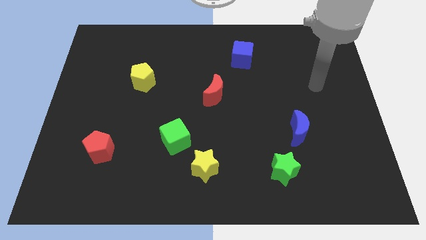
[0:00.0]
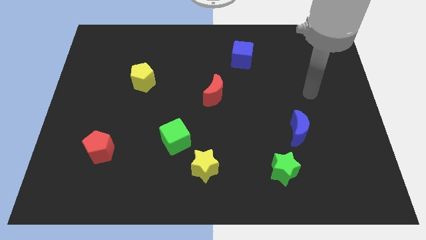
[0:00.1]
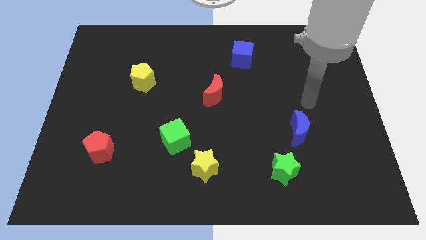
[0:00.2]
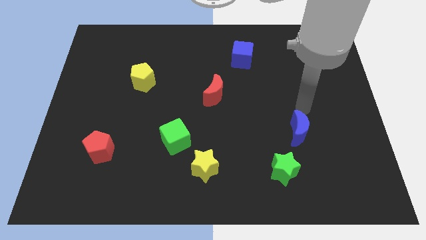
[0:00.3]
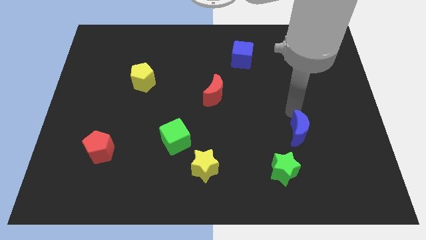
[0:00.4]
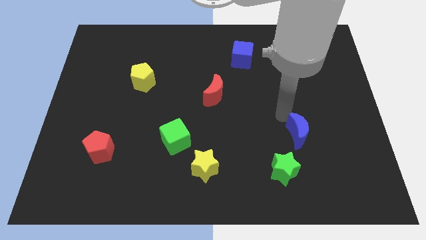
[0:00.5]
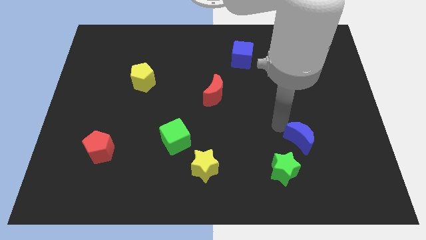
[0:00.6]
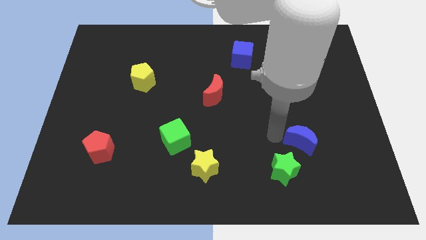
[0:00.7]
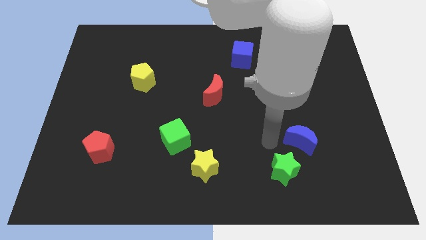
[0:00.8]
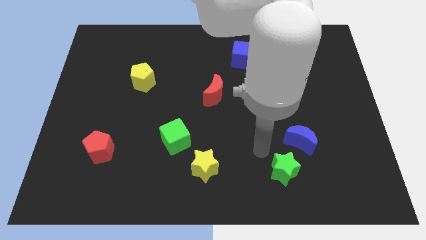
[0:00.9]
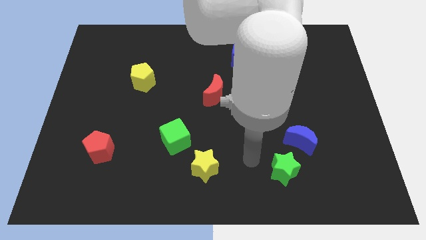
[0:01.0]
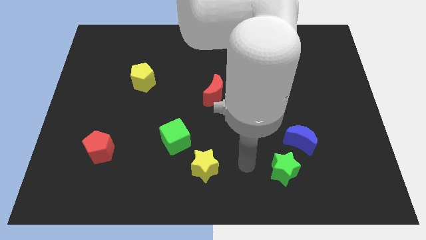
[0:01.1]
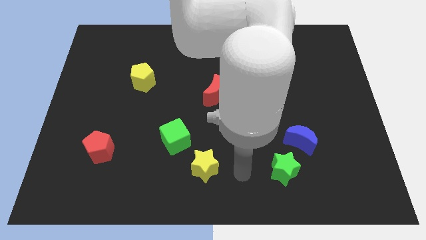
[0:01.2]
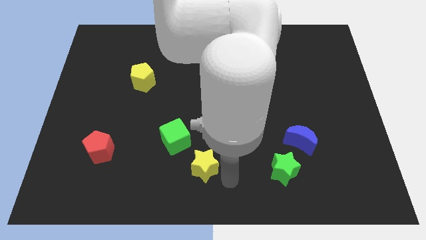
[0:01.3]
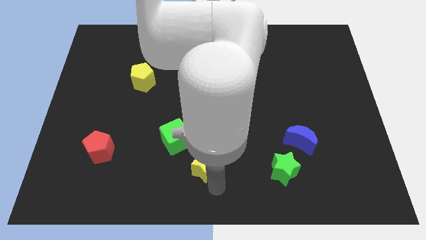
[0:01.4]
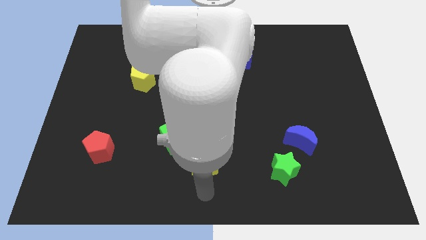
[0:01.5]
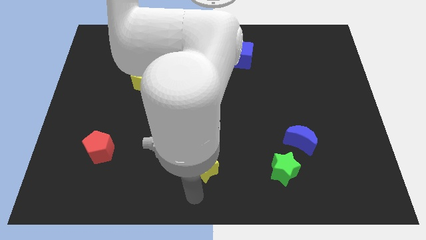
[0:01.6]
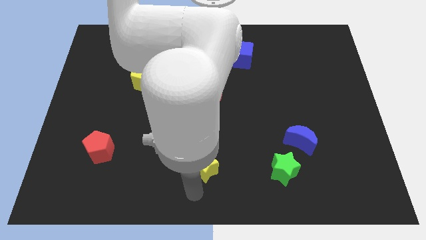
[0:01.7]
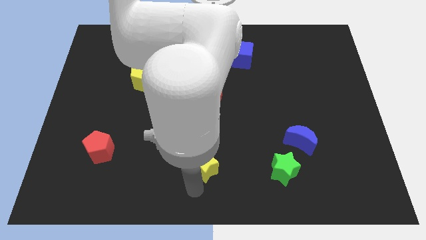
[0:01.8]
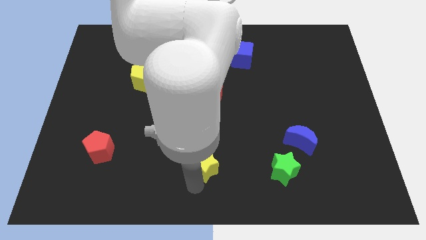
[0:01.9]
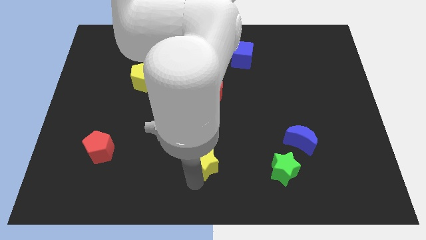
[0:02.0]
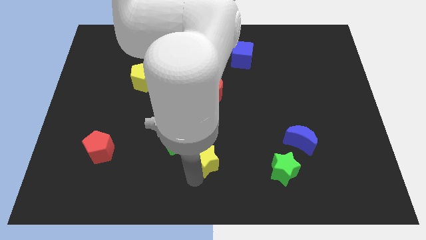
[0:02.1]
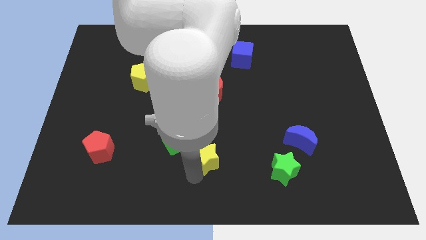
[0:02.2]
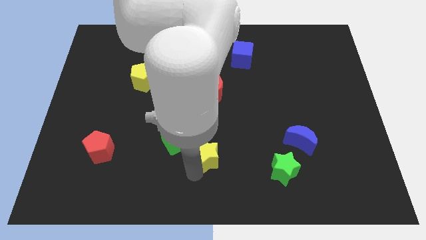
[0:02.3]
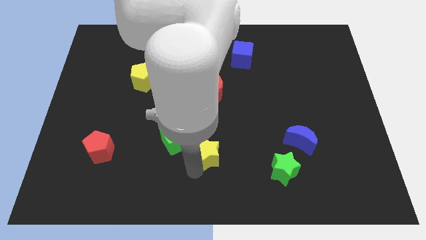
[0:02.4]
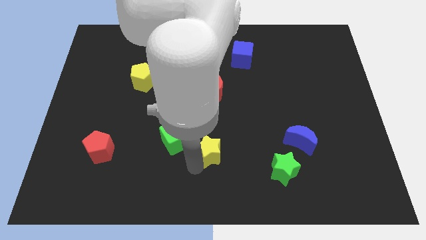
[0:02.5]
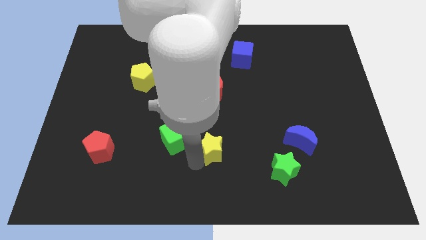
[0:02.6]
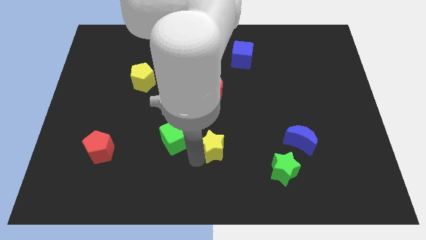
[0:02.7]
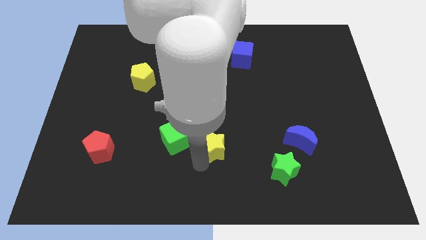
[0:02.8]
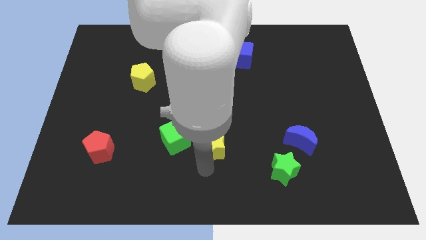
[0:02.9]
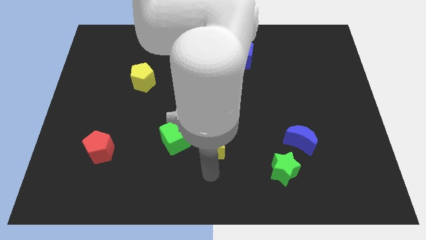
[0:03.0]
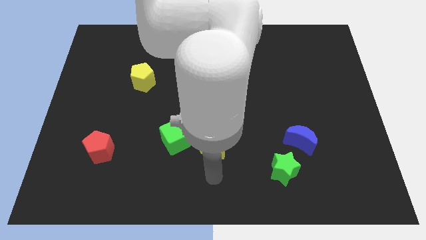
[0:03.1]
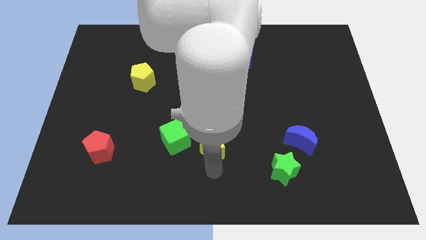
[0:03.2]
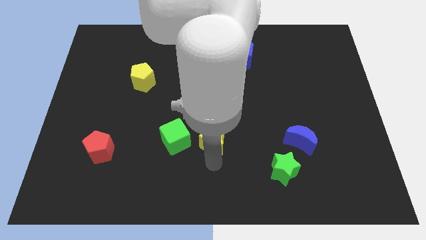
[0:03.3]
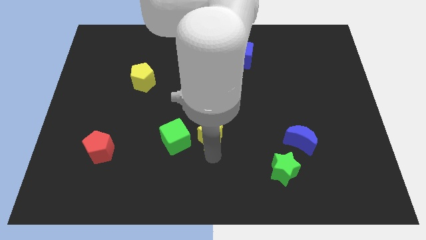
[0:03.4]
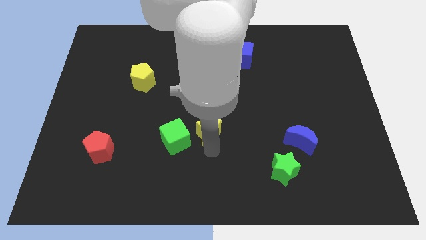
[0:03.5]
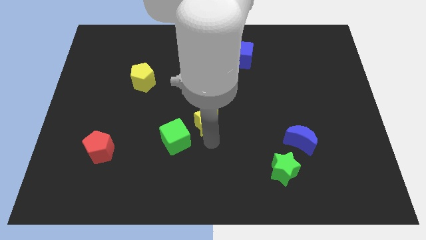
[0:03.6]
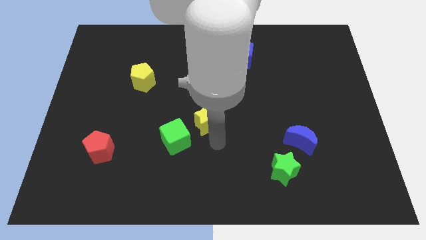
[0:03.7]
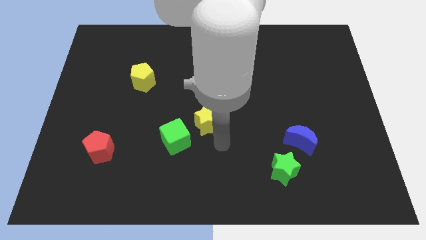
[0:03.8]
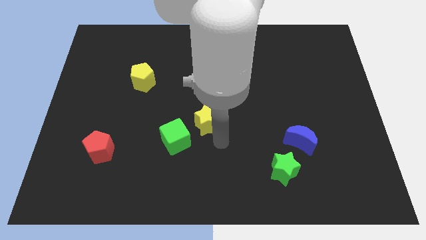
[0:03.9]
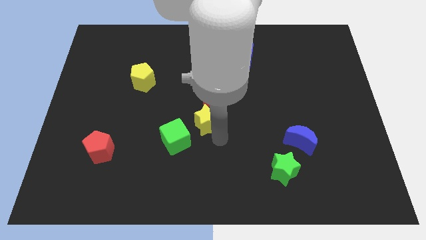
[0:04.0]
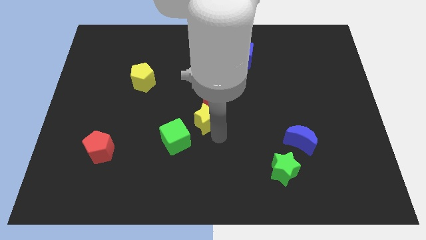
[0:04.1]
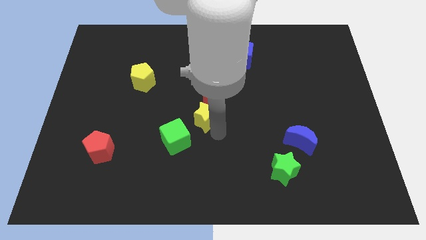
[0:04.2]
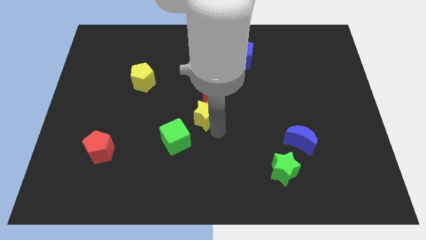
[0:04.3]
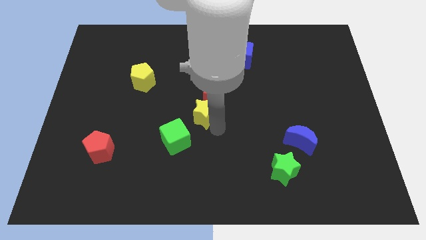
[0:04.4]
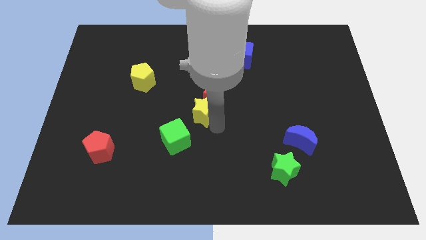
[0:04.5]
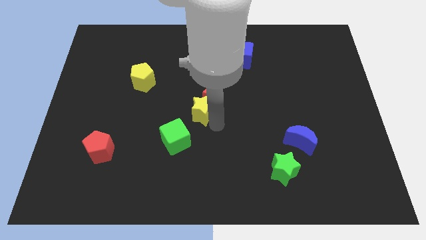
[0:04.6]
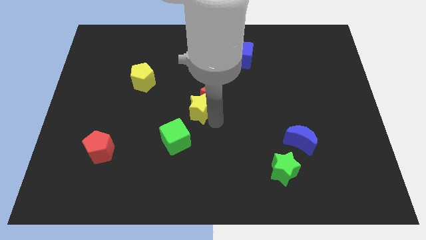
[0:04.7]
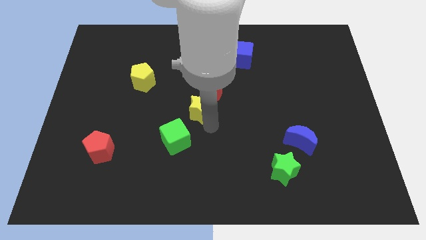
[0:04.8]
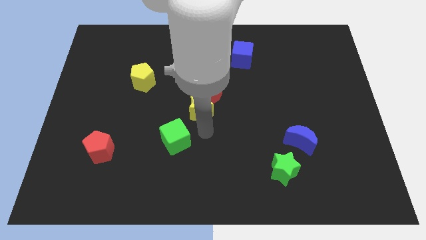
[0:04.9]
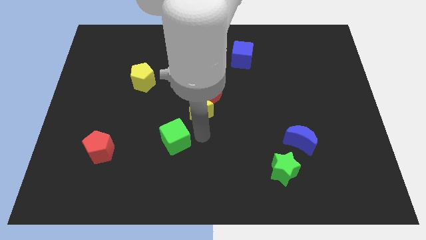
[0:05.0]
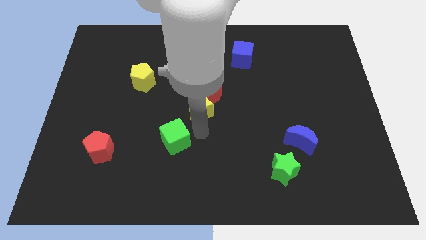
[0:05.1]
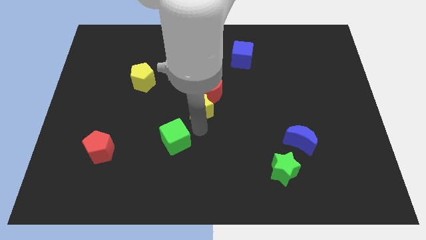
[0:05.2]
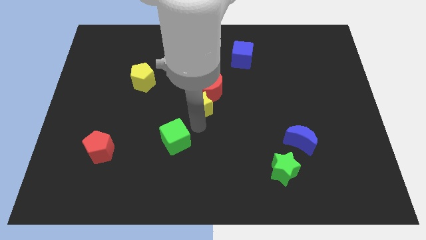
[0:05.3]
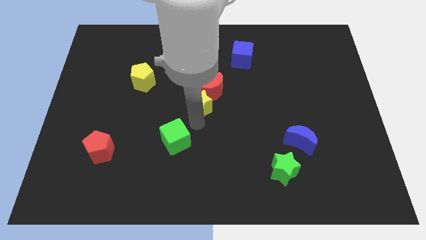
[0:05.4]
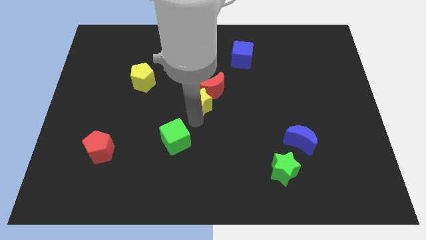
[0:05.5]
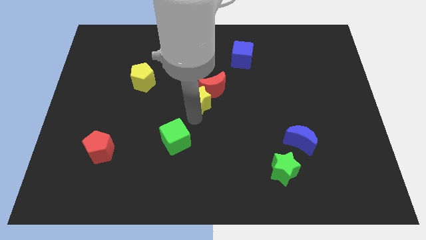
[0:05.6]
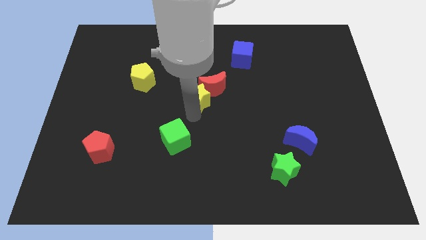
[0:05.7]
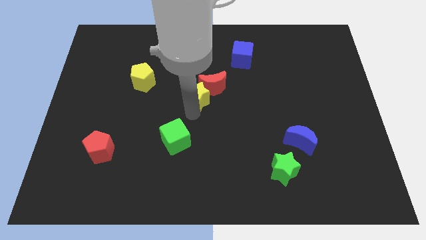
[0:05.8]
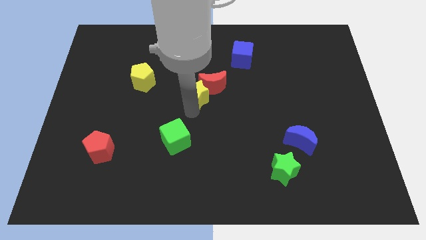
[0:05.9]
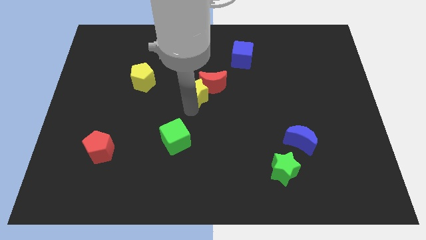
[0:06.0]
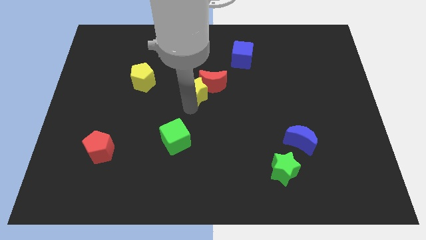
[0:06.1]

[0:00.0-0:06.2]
push the yellow star up

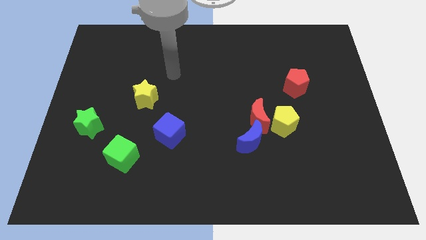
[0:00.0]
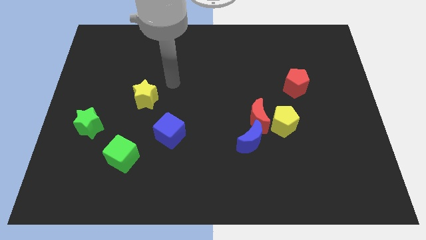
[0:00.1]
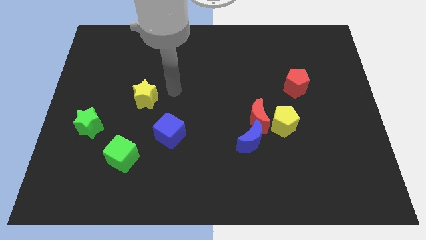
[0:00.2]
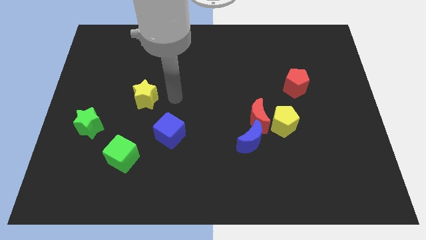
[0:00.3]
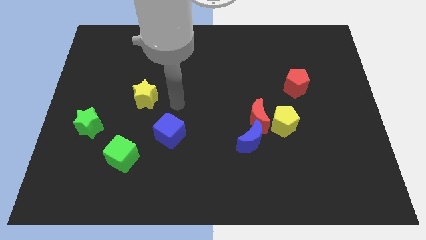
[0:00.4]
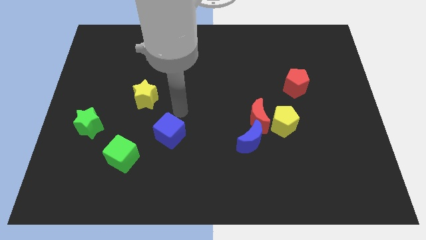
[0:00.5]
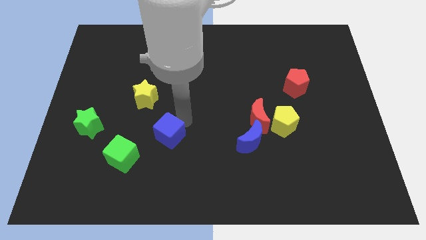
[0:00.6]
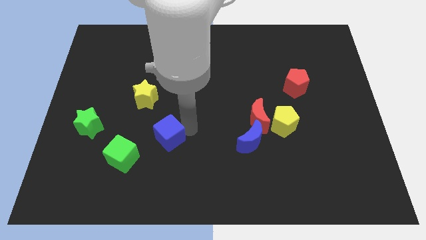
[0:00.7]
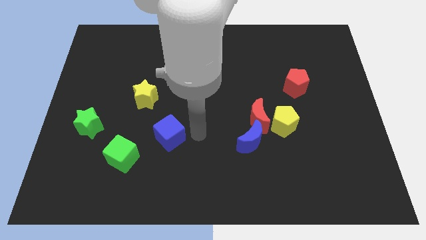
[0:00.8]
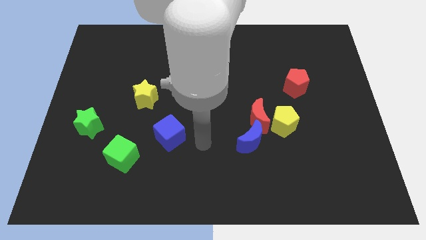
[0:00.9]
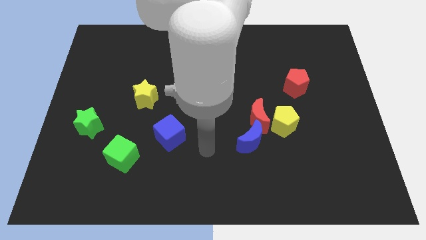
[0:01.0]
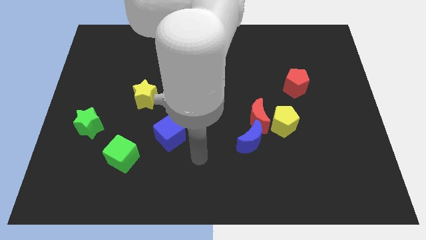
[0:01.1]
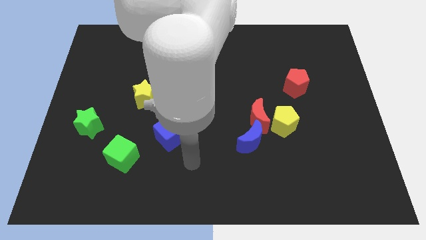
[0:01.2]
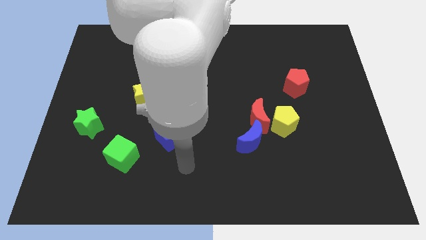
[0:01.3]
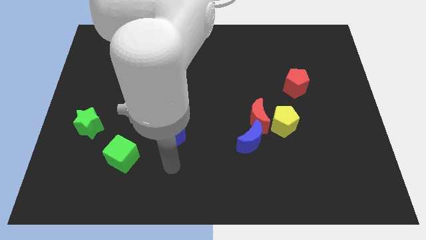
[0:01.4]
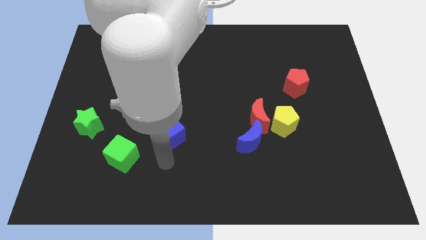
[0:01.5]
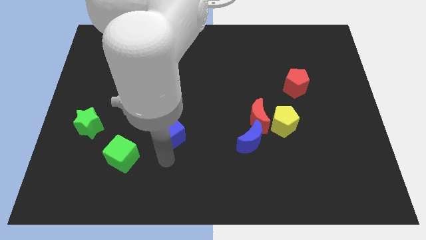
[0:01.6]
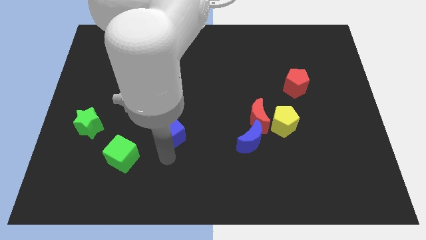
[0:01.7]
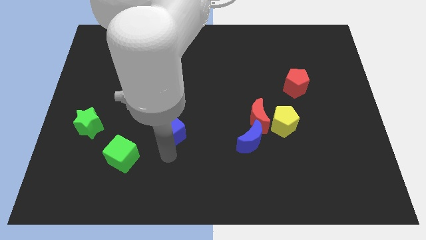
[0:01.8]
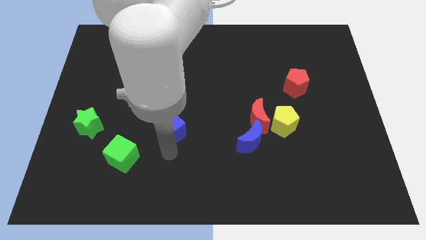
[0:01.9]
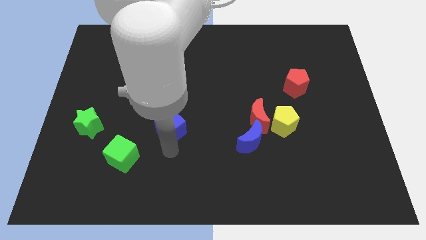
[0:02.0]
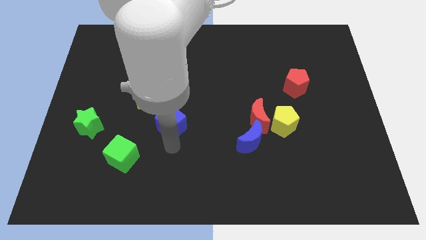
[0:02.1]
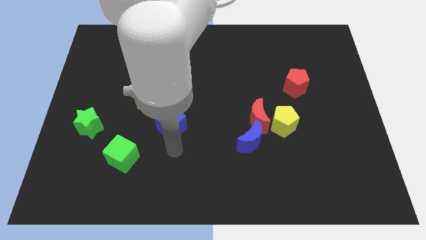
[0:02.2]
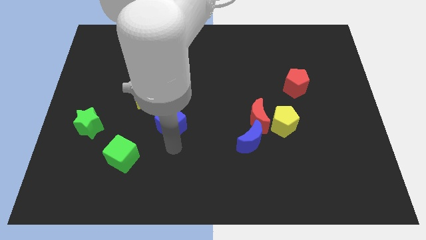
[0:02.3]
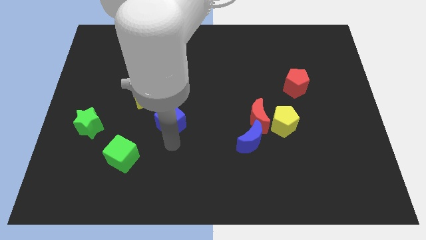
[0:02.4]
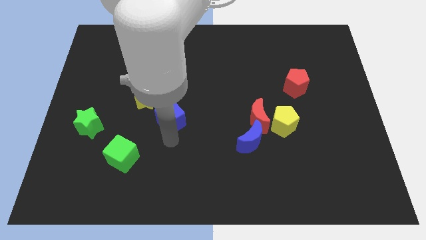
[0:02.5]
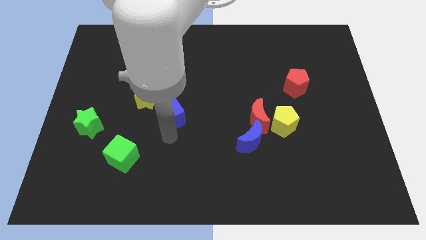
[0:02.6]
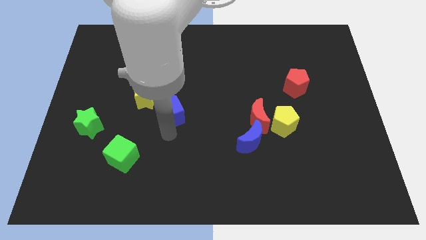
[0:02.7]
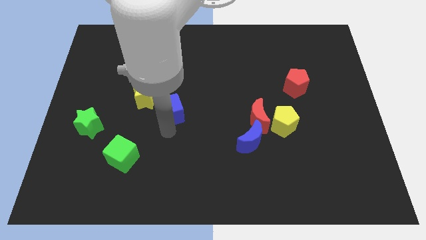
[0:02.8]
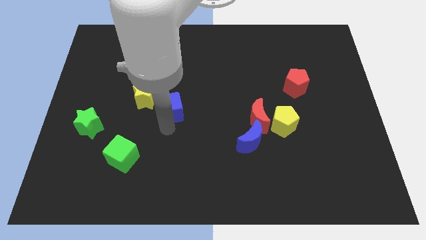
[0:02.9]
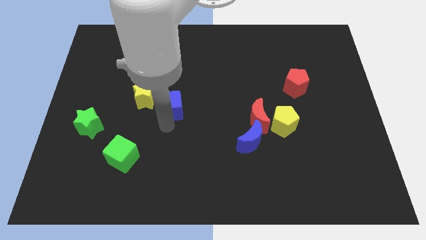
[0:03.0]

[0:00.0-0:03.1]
move the blue cube somewhat up
